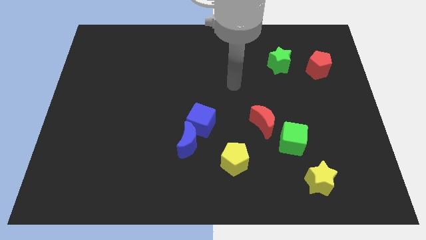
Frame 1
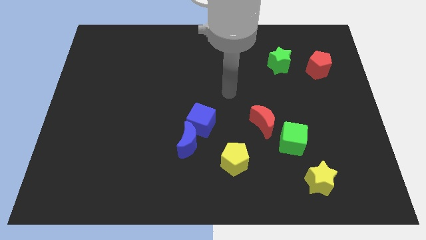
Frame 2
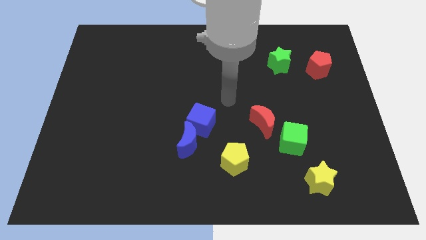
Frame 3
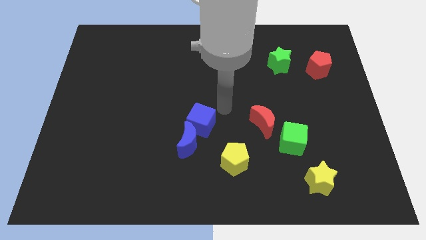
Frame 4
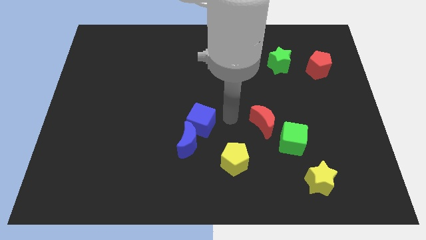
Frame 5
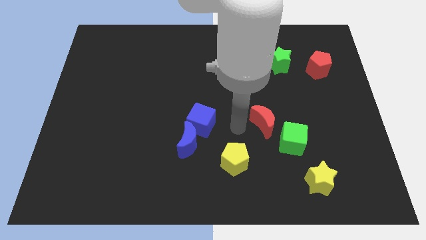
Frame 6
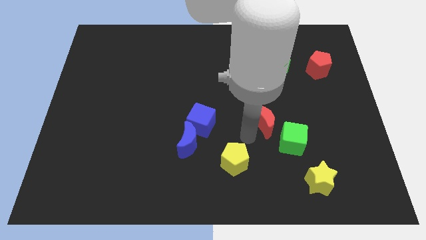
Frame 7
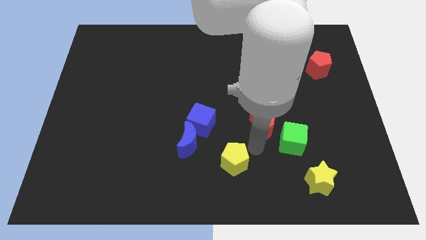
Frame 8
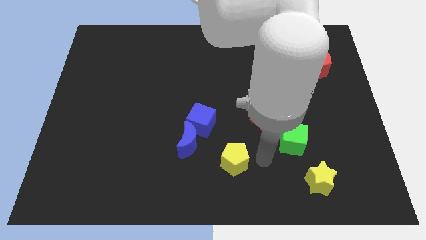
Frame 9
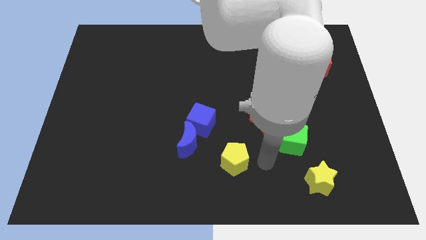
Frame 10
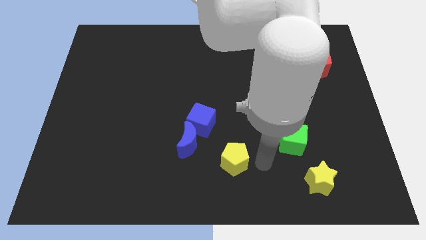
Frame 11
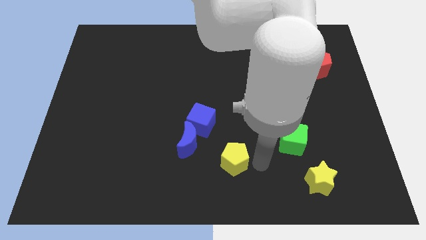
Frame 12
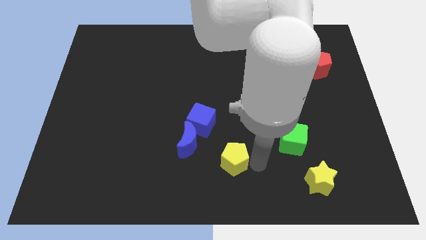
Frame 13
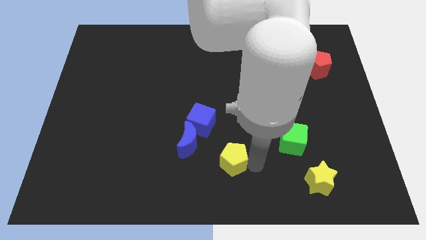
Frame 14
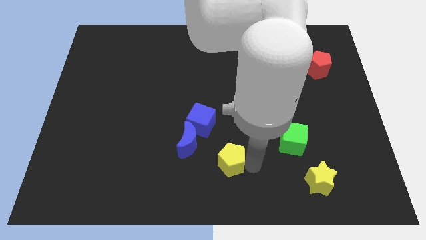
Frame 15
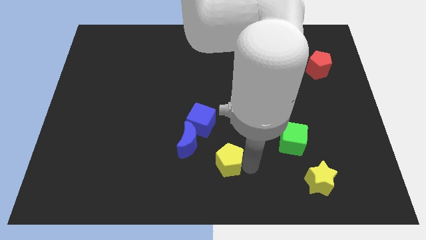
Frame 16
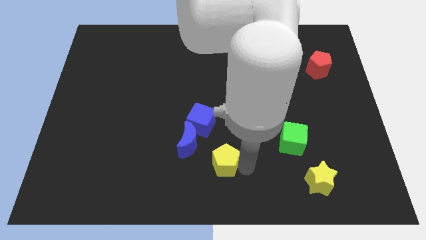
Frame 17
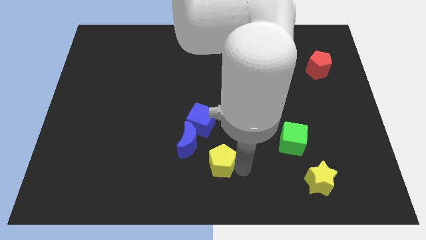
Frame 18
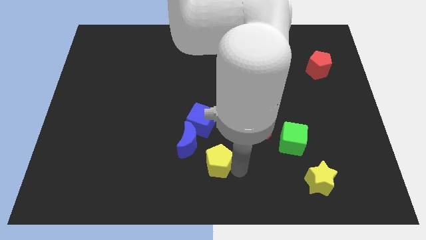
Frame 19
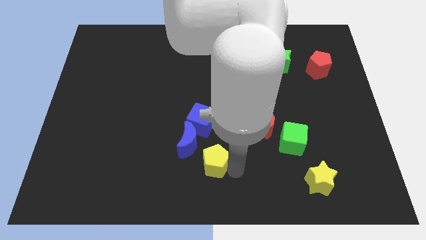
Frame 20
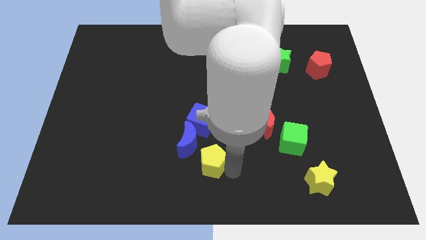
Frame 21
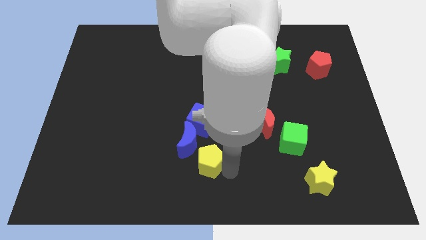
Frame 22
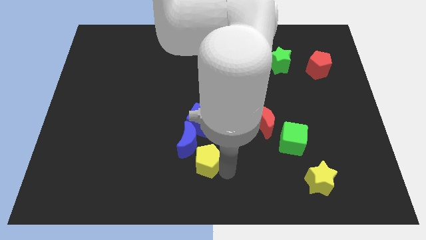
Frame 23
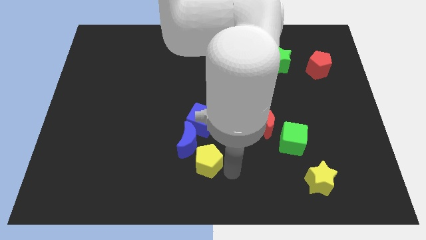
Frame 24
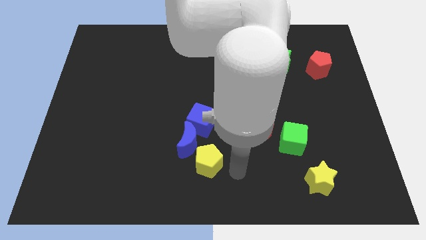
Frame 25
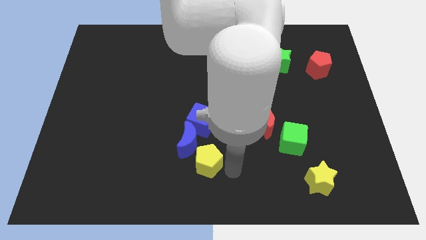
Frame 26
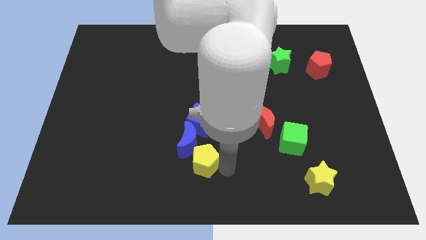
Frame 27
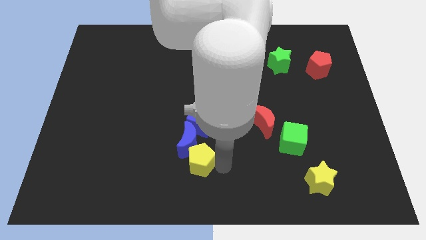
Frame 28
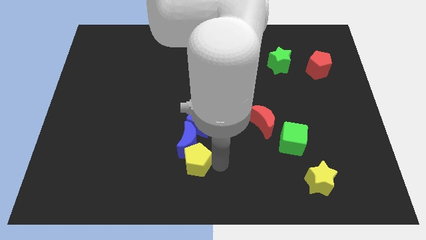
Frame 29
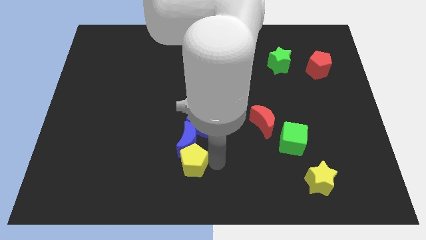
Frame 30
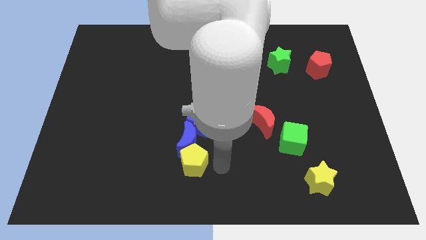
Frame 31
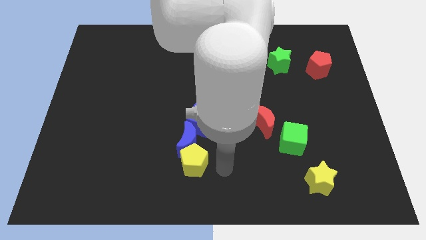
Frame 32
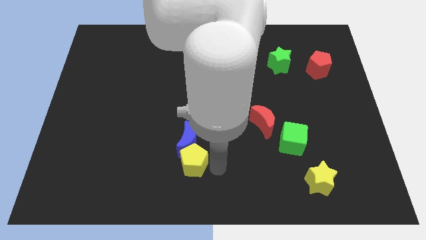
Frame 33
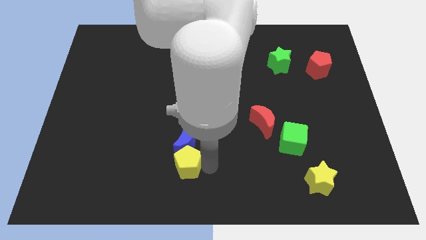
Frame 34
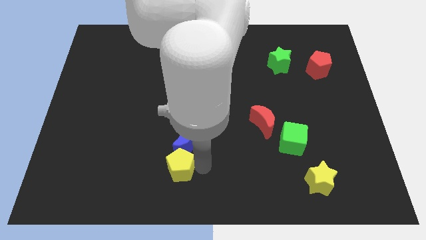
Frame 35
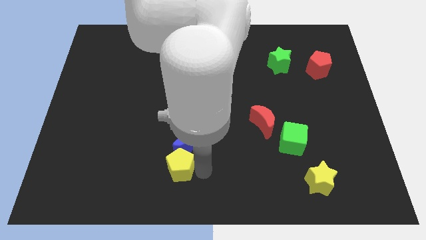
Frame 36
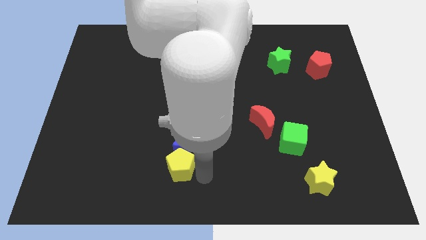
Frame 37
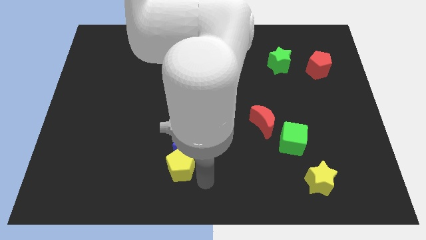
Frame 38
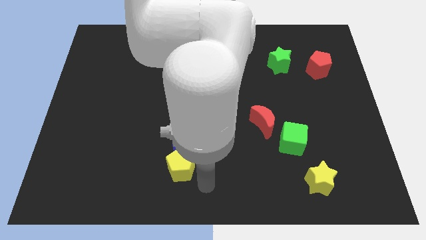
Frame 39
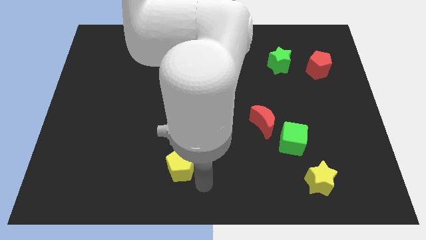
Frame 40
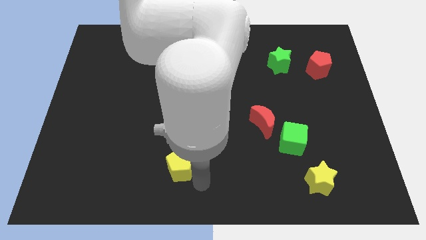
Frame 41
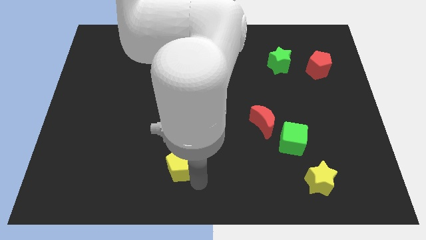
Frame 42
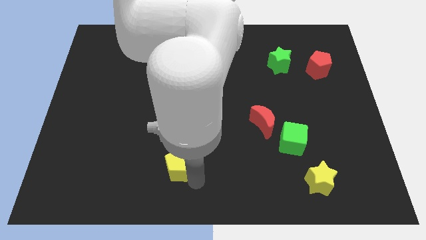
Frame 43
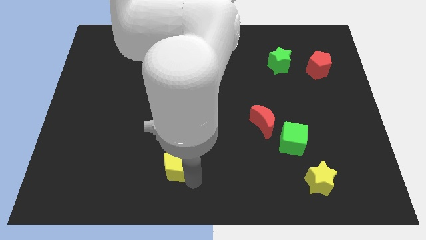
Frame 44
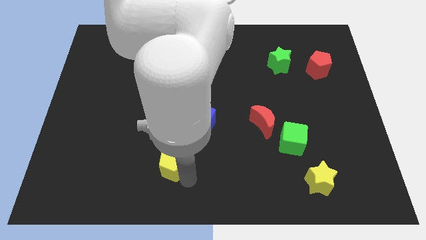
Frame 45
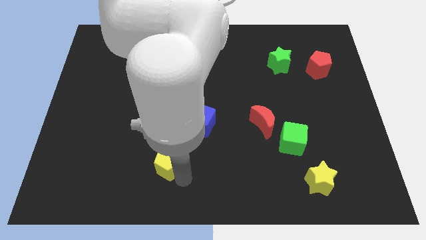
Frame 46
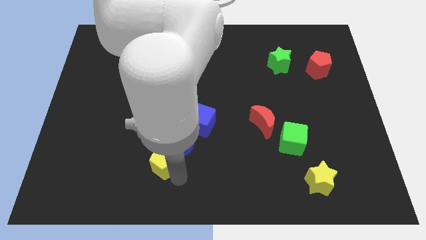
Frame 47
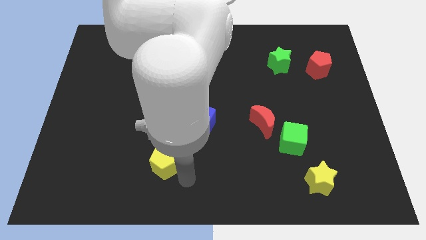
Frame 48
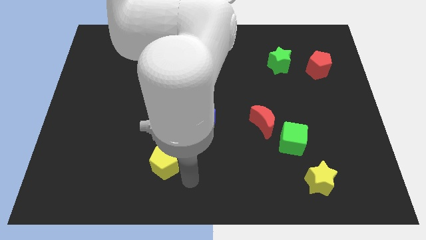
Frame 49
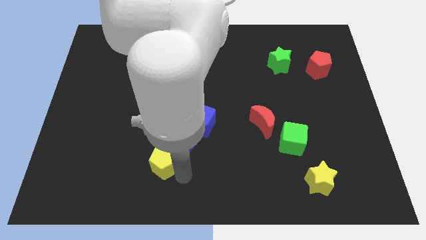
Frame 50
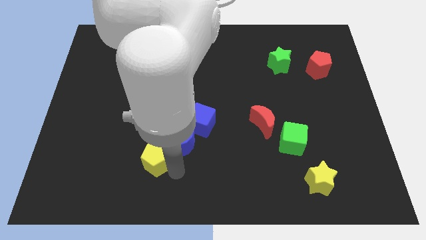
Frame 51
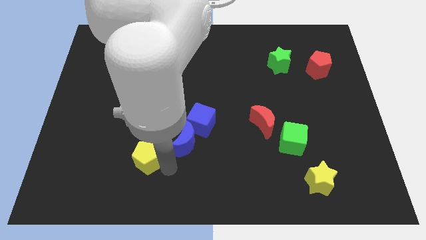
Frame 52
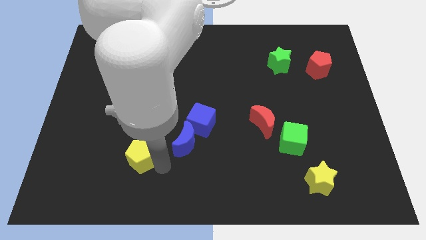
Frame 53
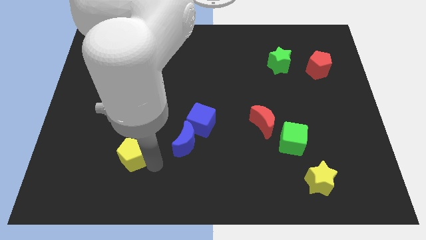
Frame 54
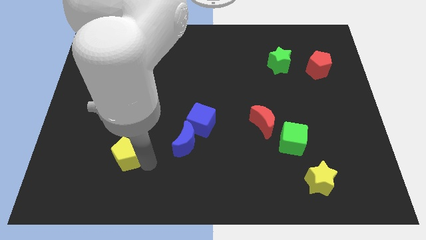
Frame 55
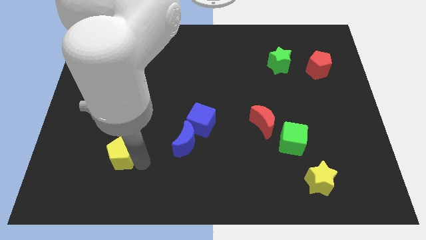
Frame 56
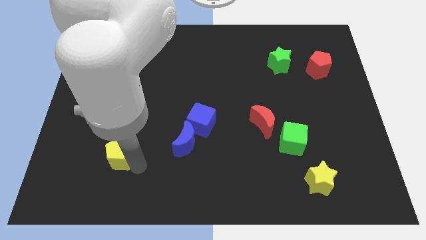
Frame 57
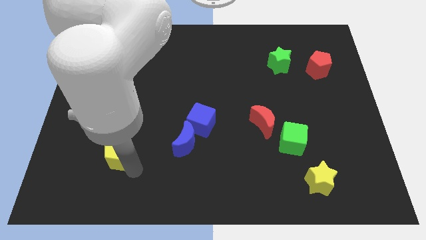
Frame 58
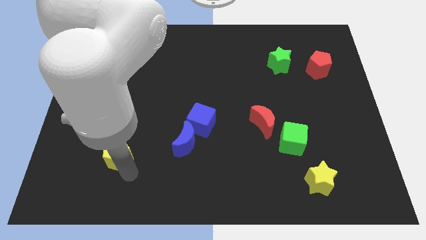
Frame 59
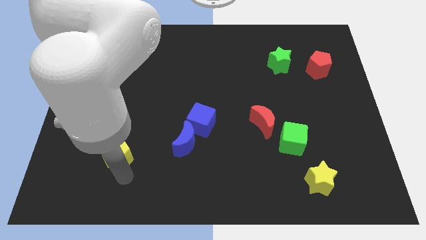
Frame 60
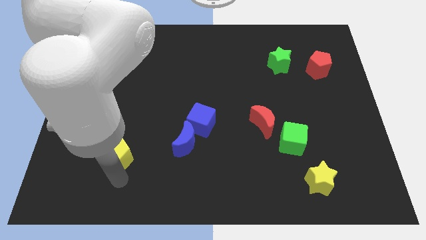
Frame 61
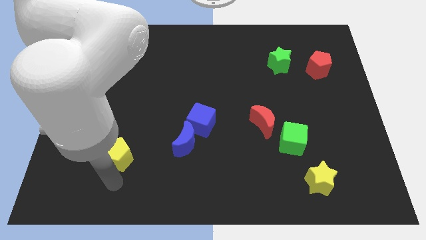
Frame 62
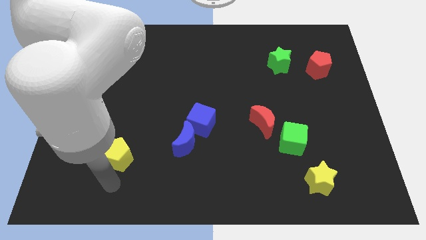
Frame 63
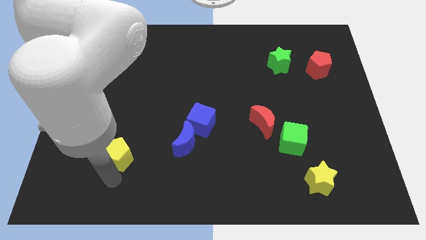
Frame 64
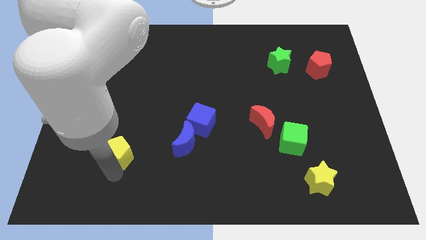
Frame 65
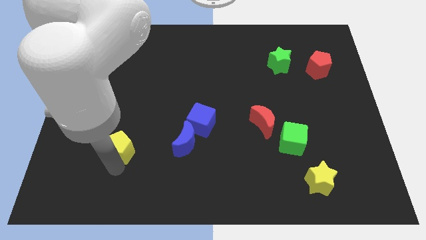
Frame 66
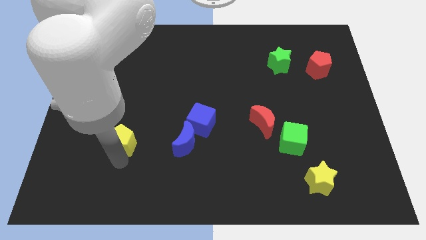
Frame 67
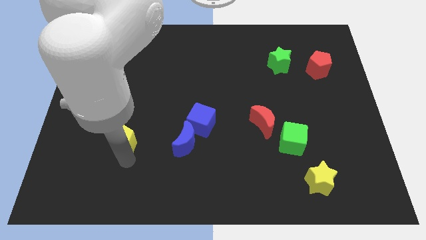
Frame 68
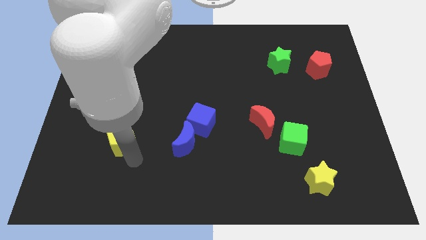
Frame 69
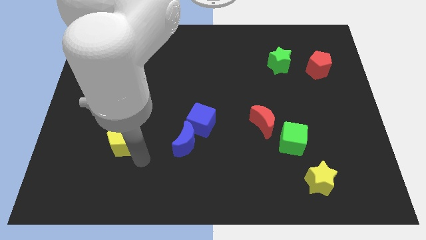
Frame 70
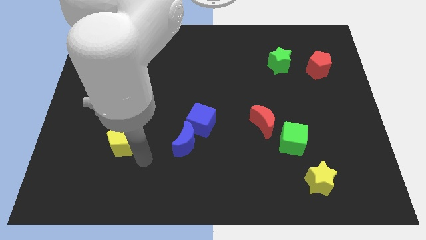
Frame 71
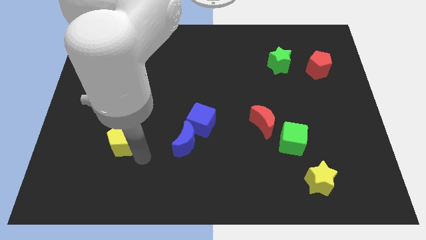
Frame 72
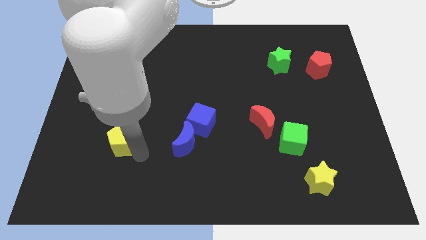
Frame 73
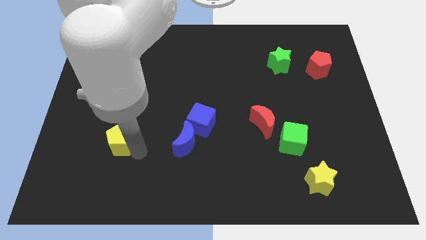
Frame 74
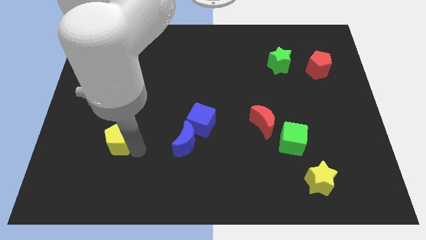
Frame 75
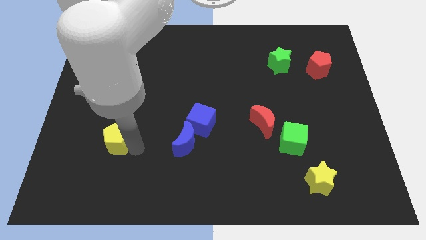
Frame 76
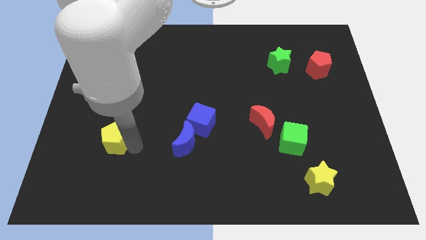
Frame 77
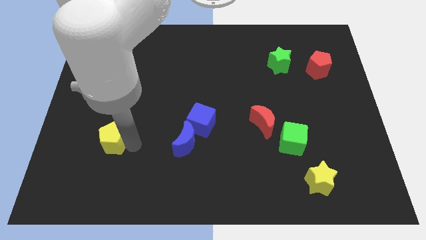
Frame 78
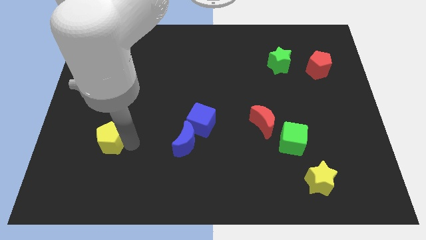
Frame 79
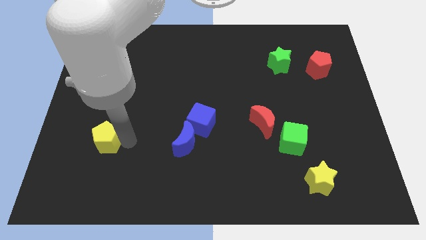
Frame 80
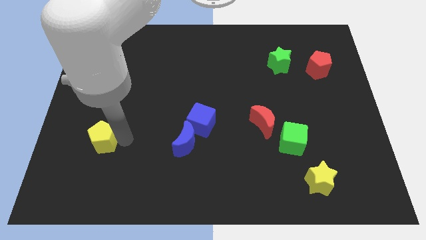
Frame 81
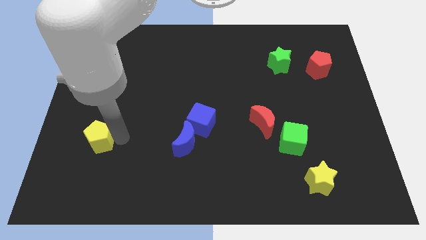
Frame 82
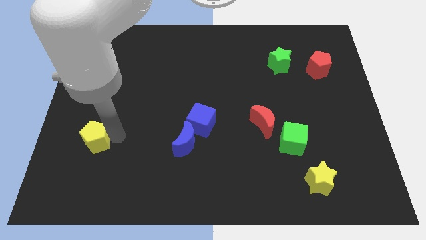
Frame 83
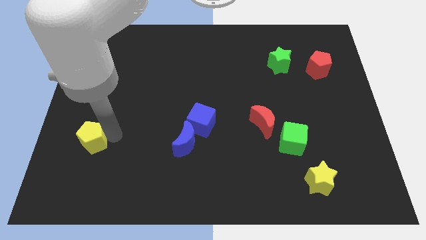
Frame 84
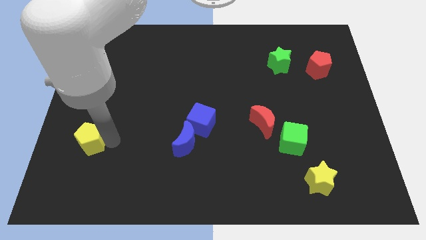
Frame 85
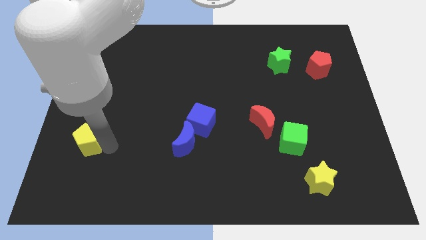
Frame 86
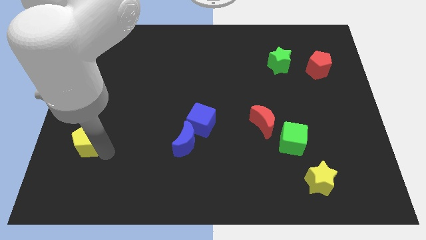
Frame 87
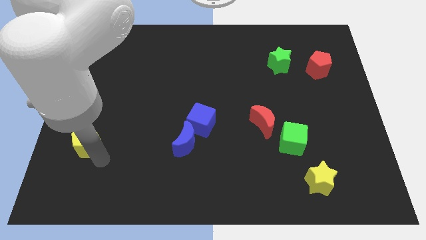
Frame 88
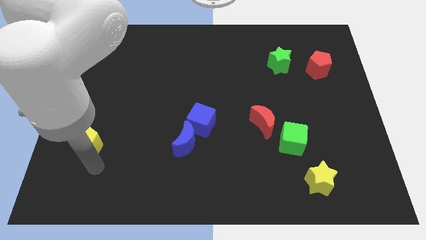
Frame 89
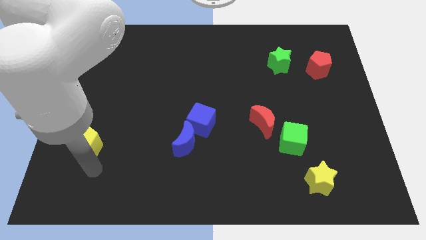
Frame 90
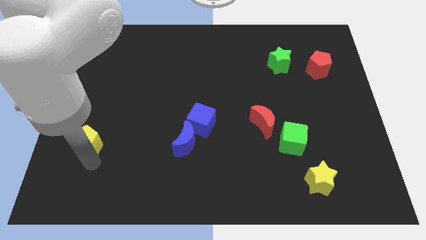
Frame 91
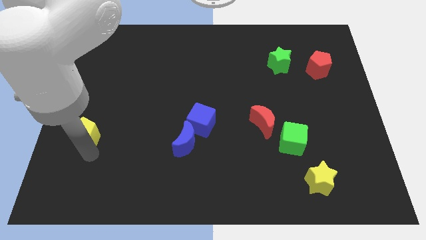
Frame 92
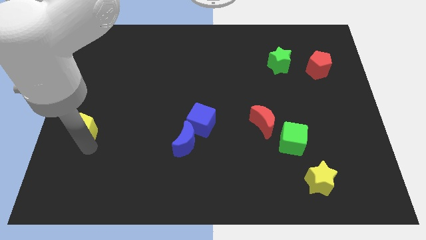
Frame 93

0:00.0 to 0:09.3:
slide the yellow pentagon to the center left
